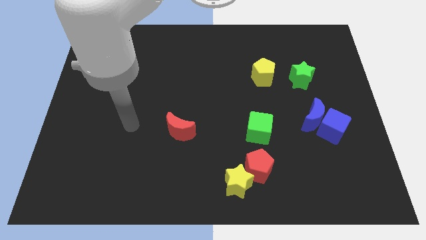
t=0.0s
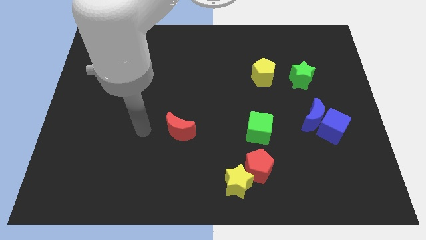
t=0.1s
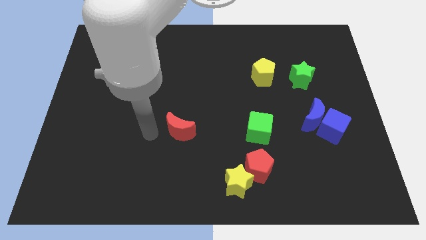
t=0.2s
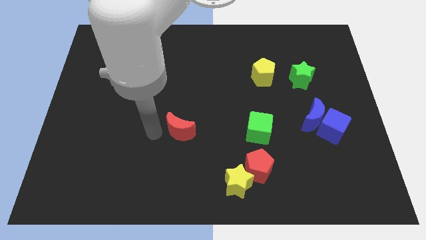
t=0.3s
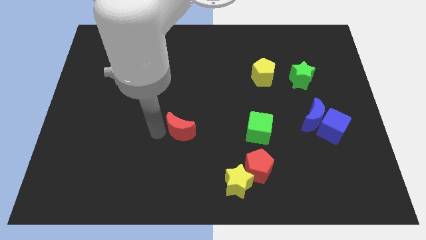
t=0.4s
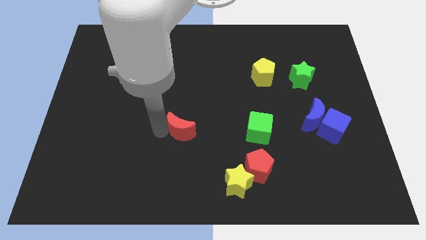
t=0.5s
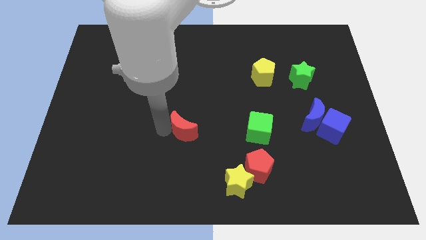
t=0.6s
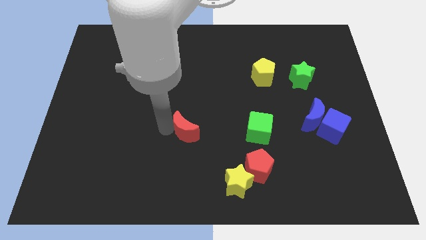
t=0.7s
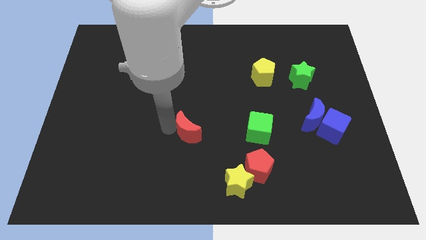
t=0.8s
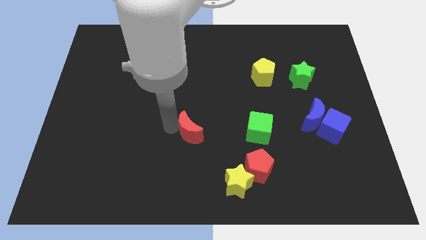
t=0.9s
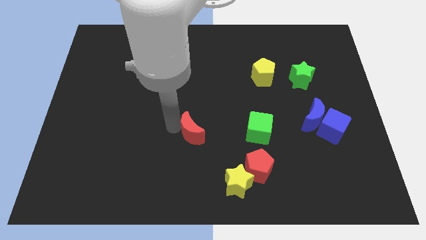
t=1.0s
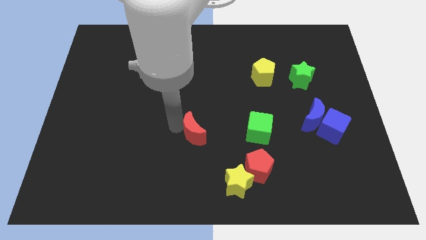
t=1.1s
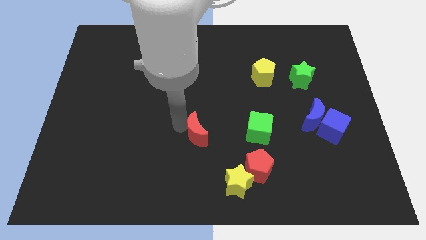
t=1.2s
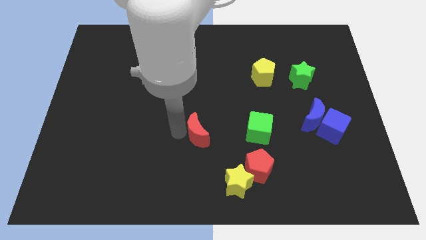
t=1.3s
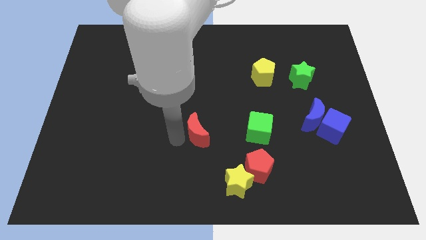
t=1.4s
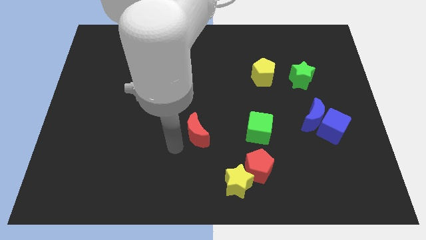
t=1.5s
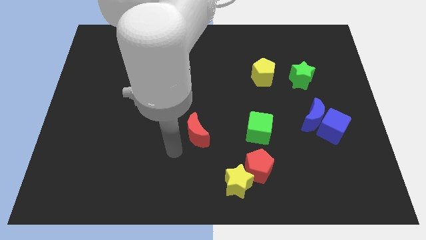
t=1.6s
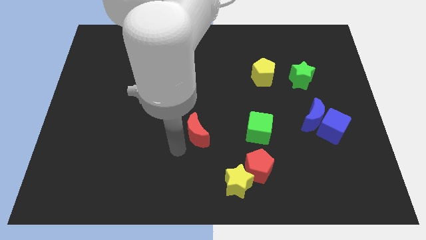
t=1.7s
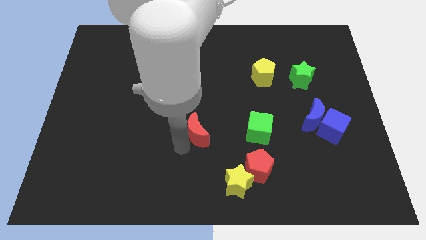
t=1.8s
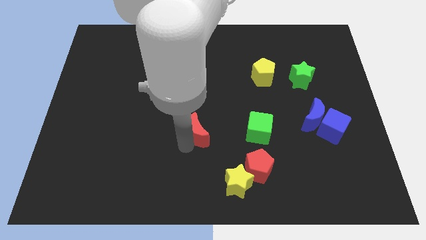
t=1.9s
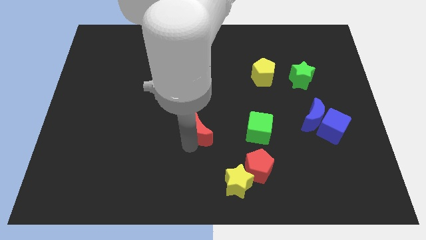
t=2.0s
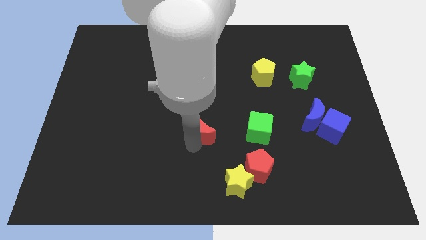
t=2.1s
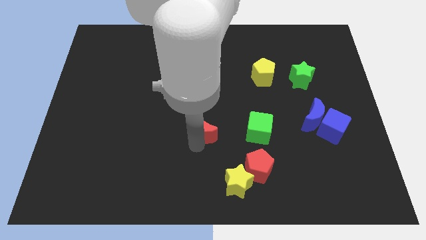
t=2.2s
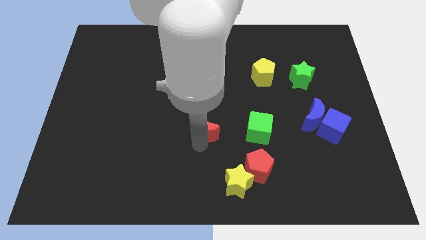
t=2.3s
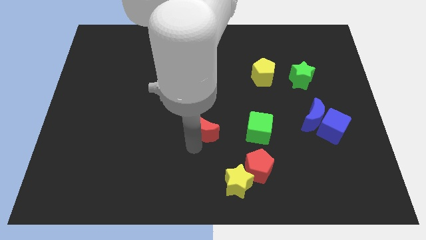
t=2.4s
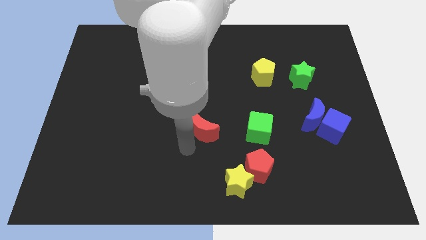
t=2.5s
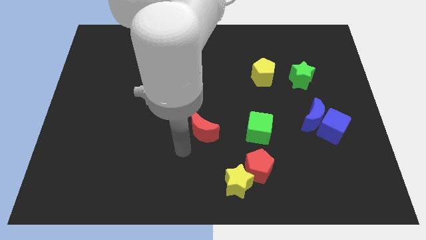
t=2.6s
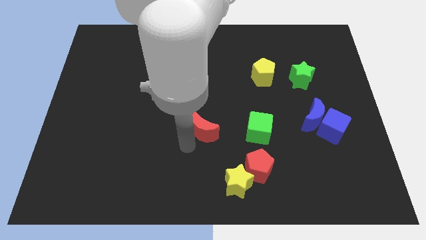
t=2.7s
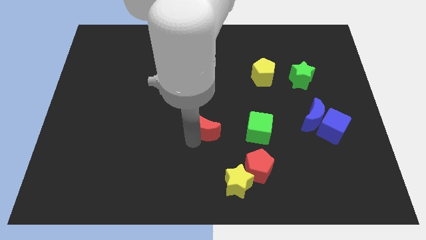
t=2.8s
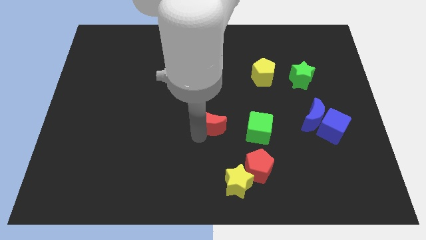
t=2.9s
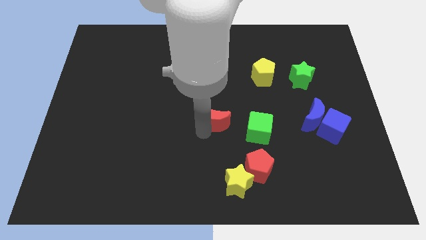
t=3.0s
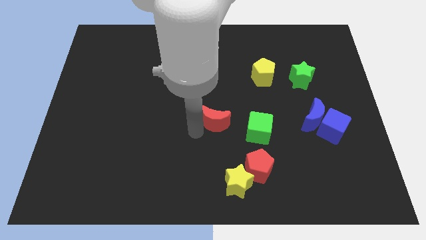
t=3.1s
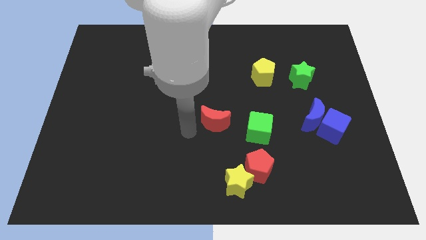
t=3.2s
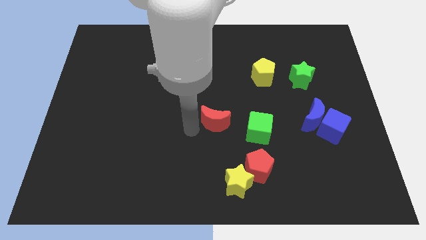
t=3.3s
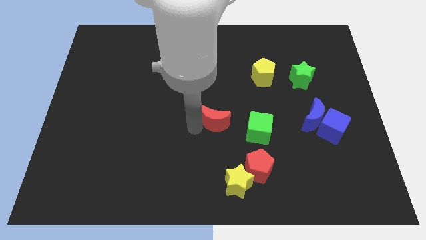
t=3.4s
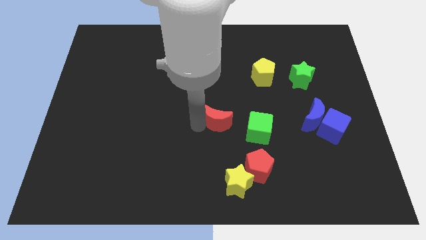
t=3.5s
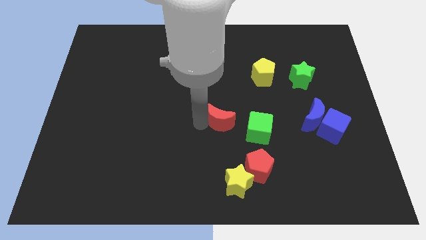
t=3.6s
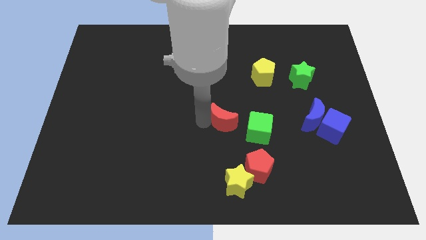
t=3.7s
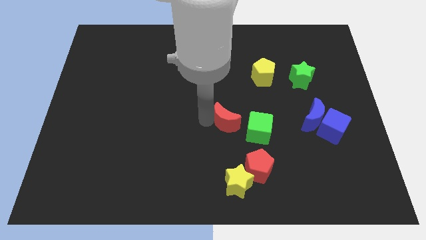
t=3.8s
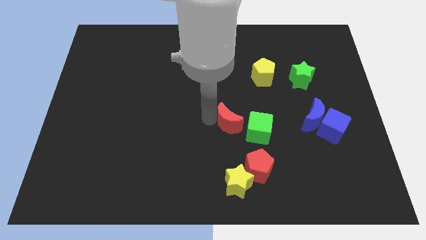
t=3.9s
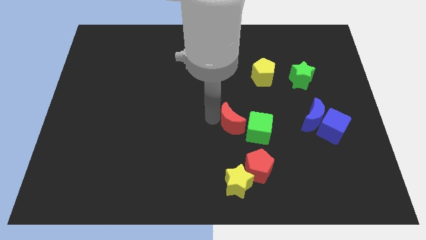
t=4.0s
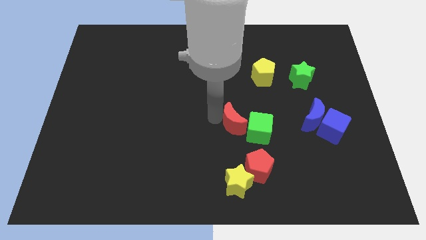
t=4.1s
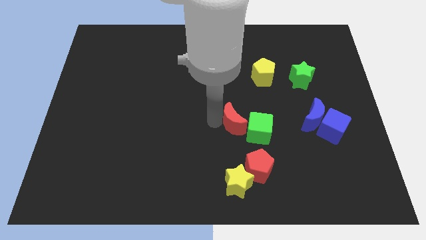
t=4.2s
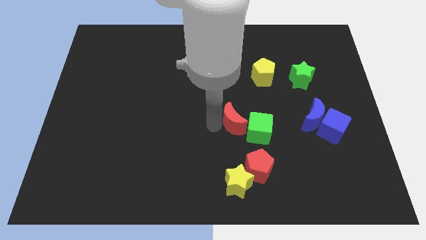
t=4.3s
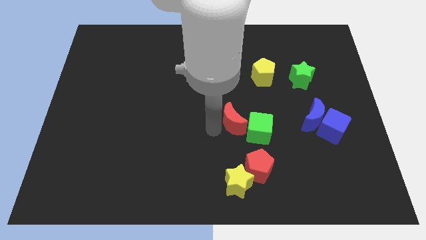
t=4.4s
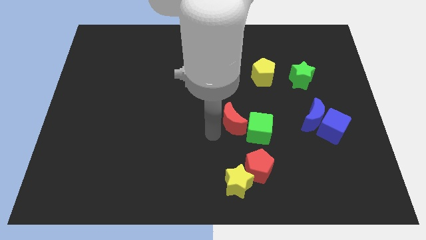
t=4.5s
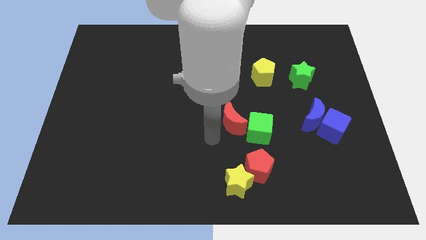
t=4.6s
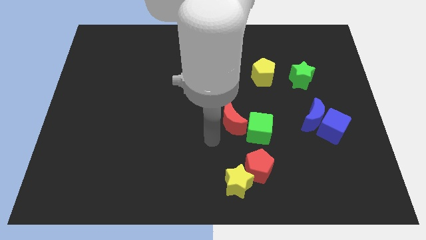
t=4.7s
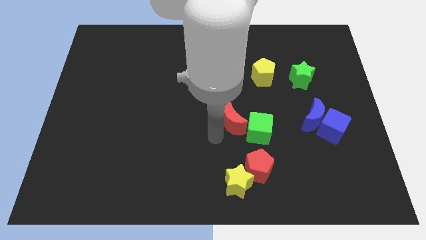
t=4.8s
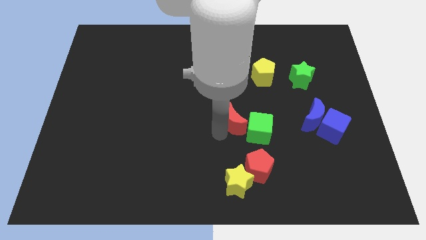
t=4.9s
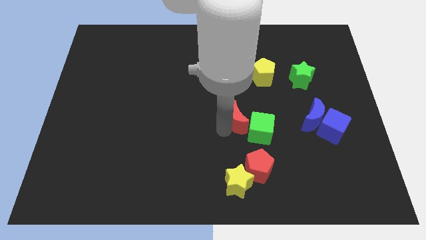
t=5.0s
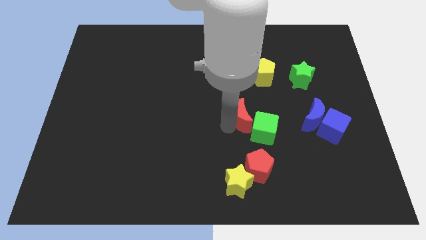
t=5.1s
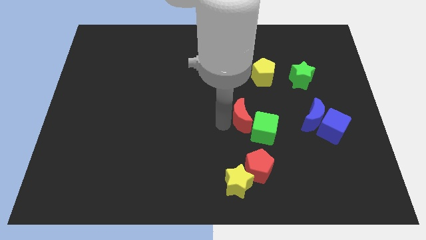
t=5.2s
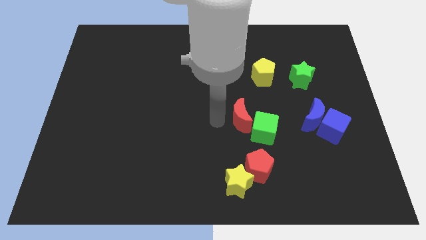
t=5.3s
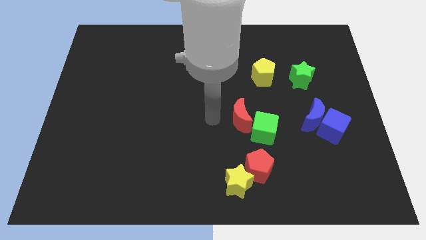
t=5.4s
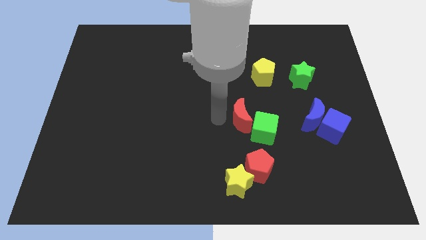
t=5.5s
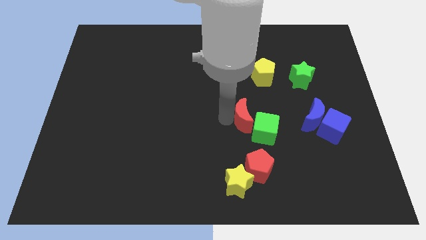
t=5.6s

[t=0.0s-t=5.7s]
move the red moon to the left side of the blue moon

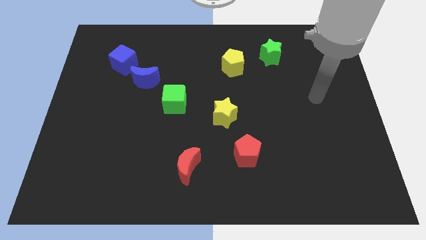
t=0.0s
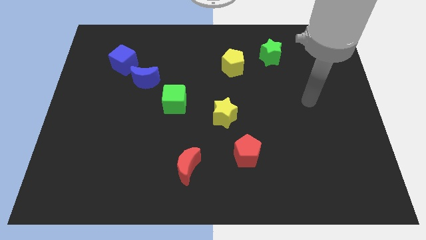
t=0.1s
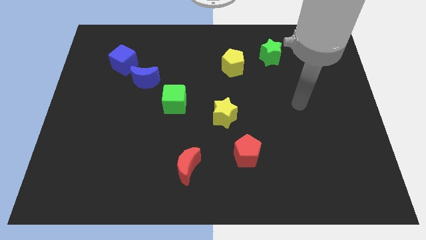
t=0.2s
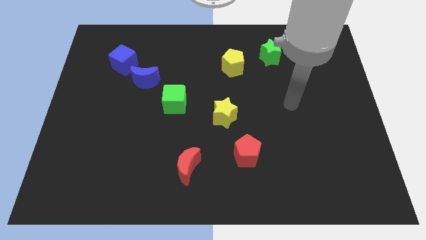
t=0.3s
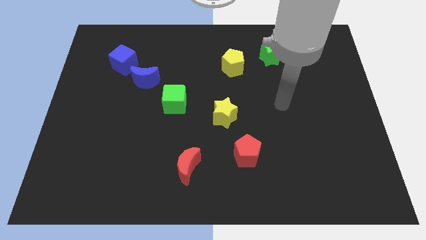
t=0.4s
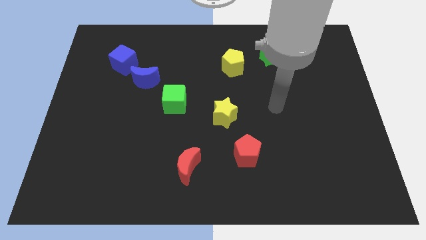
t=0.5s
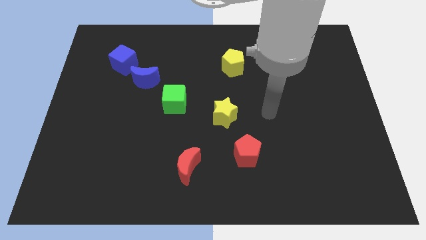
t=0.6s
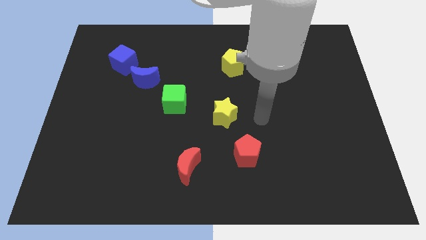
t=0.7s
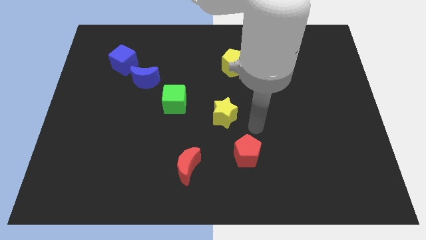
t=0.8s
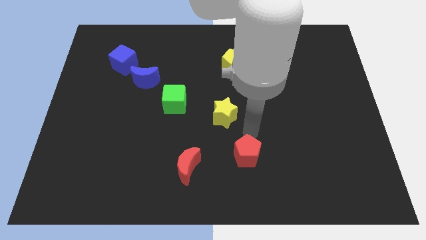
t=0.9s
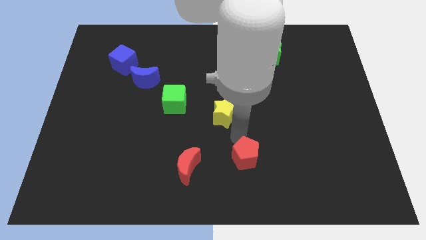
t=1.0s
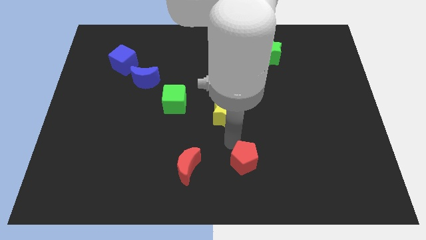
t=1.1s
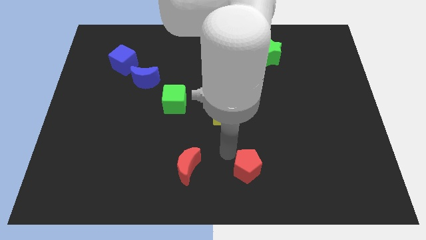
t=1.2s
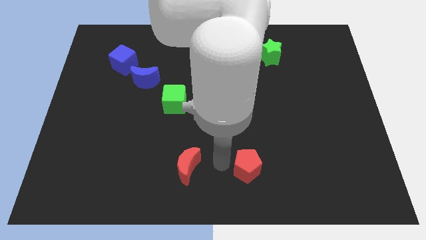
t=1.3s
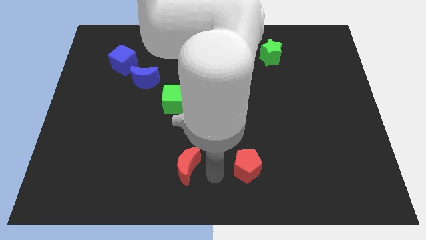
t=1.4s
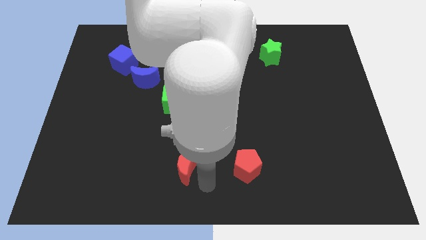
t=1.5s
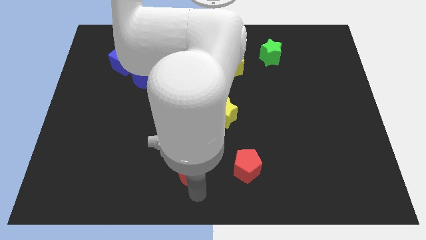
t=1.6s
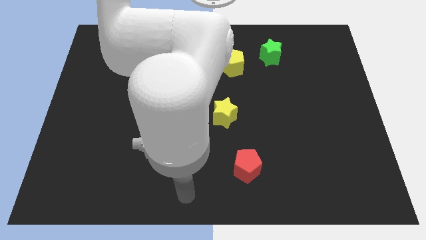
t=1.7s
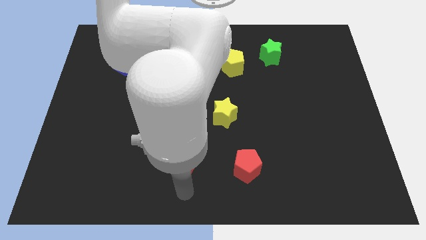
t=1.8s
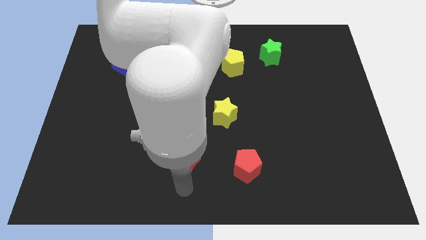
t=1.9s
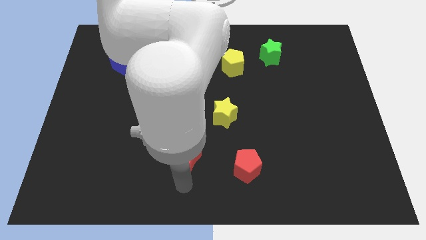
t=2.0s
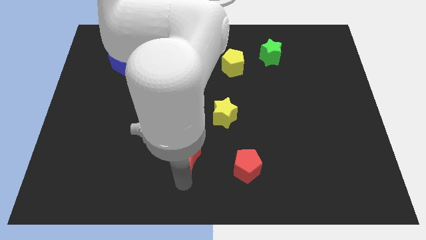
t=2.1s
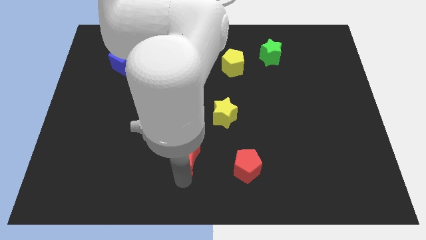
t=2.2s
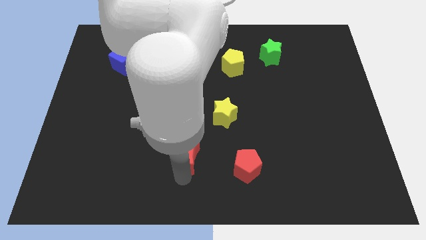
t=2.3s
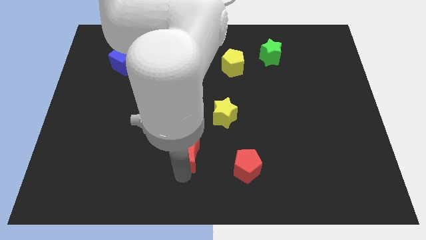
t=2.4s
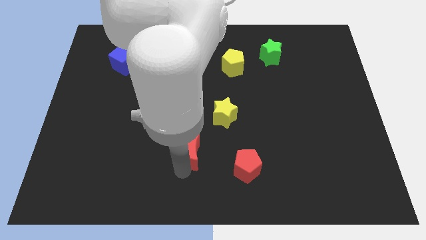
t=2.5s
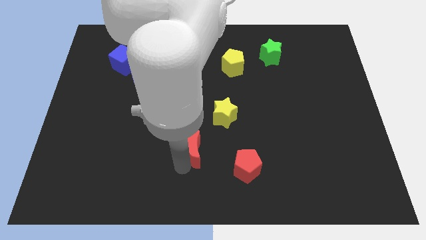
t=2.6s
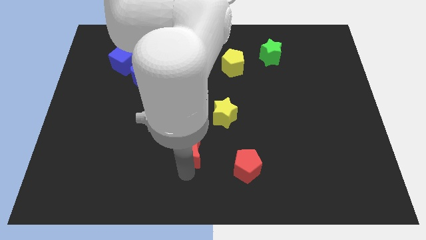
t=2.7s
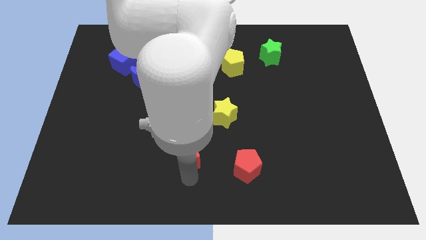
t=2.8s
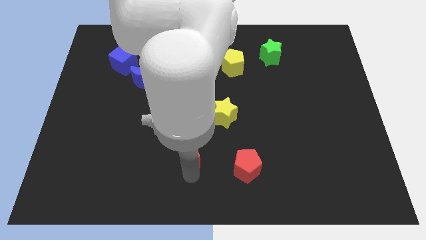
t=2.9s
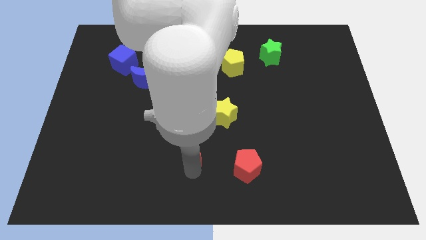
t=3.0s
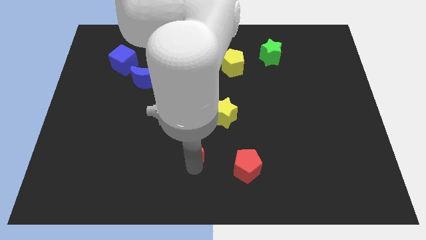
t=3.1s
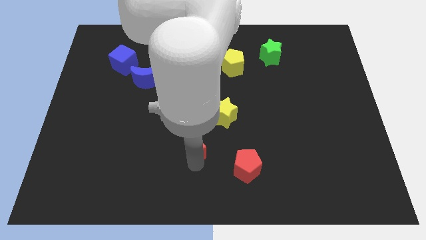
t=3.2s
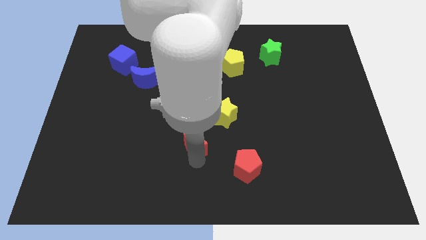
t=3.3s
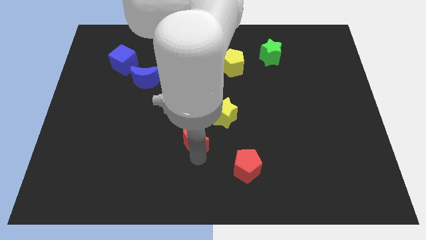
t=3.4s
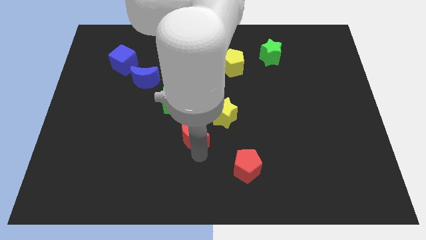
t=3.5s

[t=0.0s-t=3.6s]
move the red moon to the bottom right of the green cube
